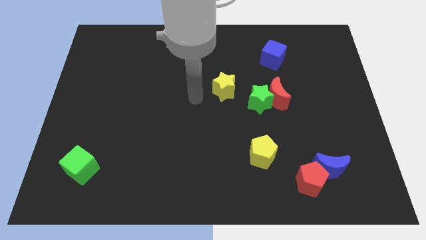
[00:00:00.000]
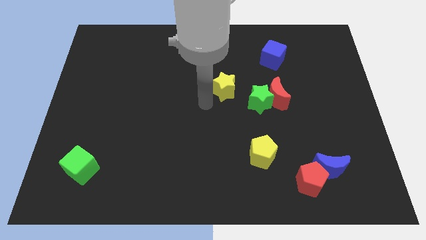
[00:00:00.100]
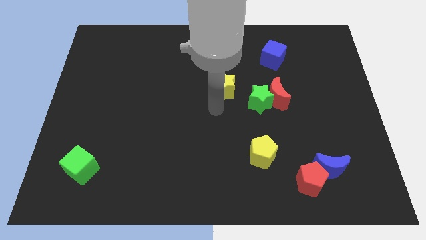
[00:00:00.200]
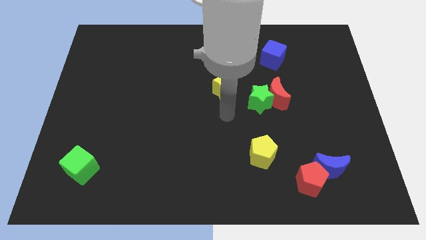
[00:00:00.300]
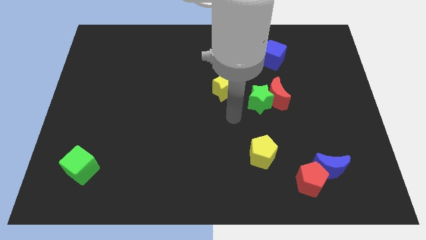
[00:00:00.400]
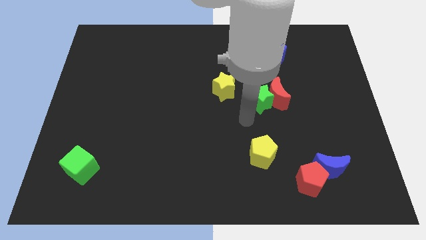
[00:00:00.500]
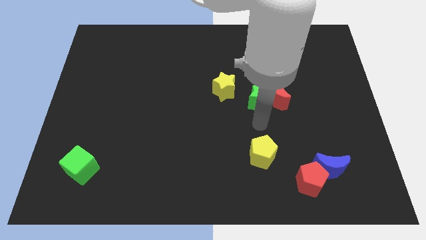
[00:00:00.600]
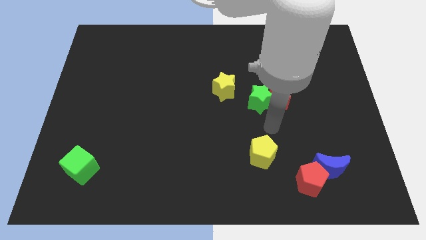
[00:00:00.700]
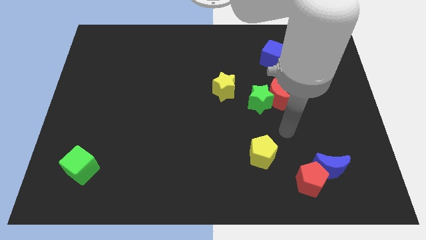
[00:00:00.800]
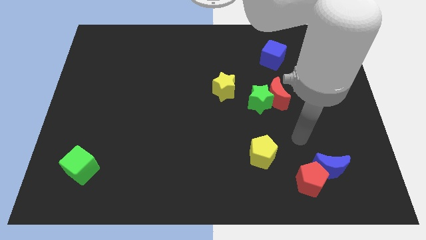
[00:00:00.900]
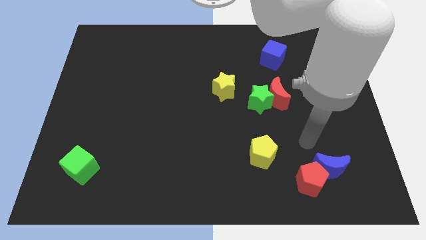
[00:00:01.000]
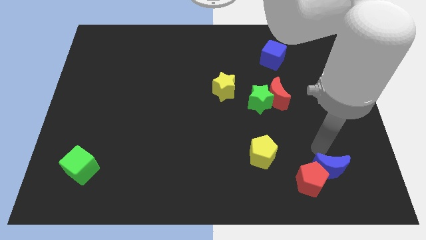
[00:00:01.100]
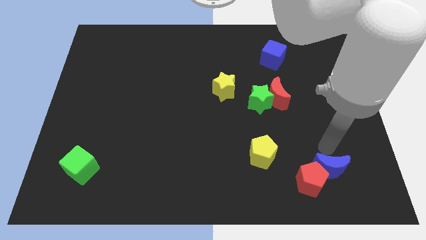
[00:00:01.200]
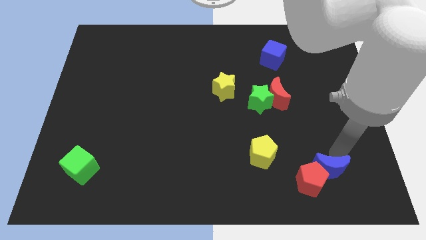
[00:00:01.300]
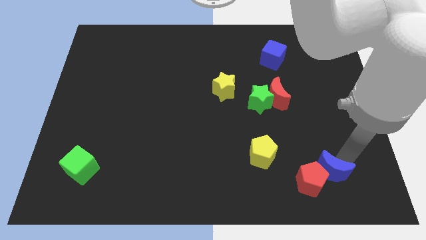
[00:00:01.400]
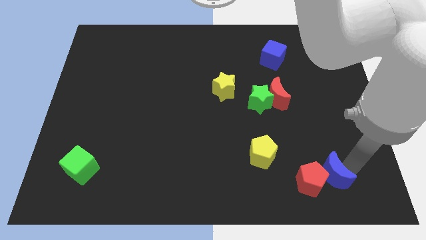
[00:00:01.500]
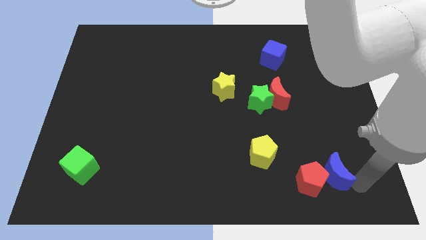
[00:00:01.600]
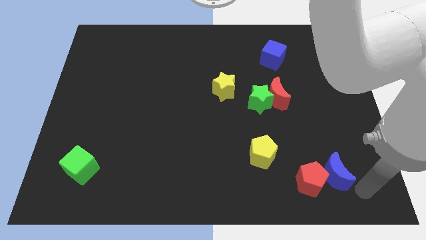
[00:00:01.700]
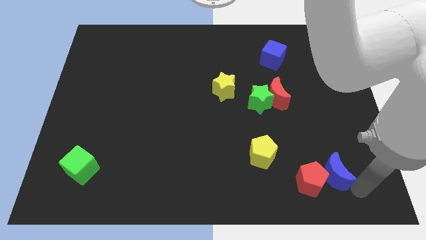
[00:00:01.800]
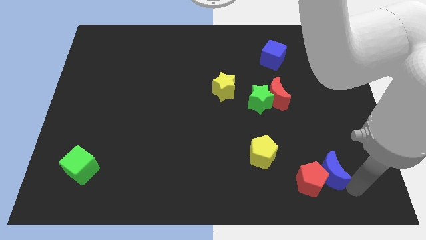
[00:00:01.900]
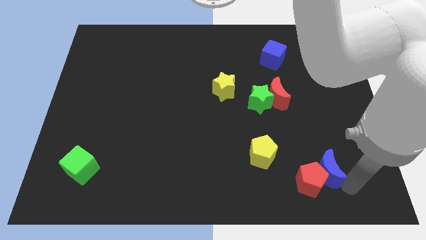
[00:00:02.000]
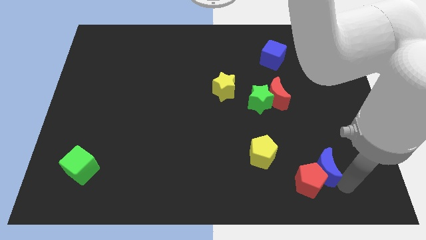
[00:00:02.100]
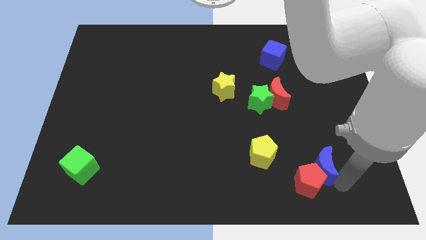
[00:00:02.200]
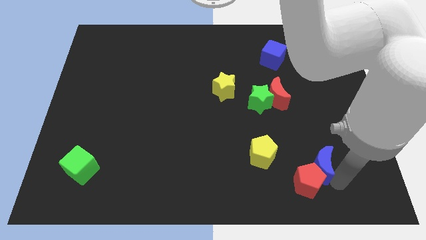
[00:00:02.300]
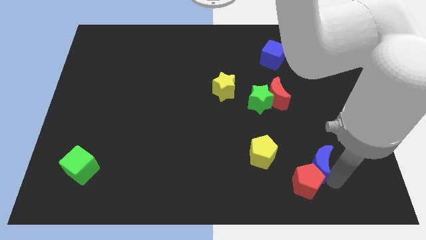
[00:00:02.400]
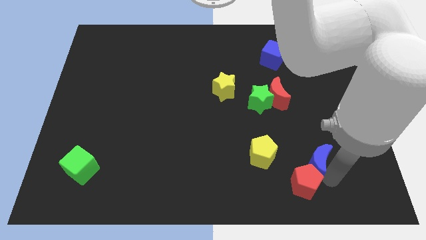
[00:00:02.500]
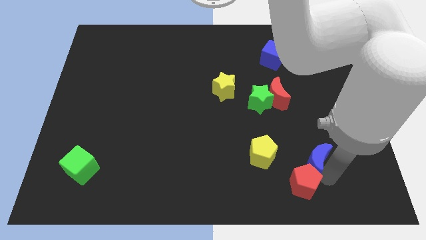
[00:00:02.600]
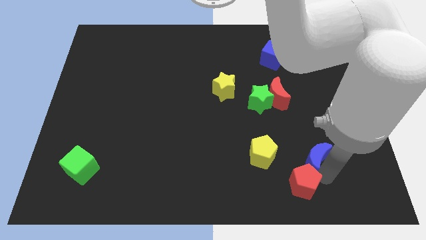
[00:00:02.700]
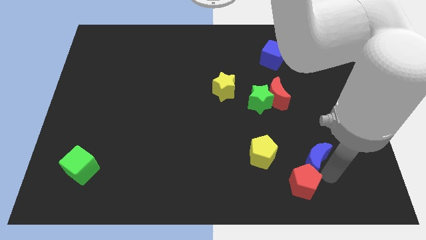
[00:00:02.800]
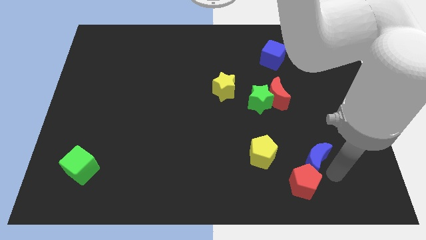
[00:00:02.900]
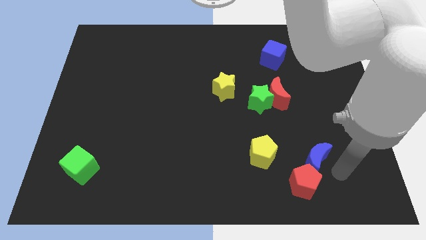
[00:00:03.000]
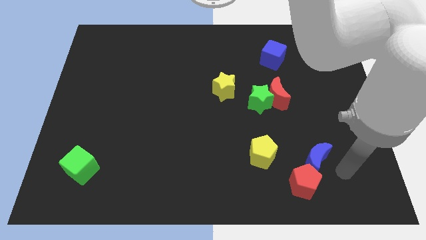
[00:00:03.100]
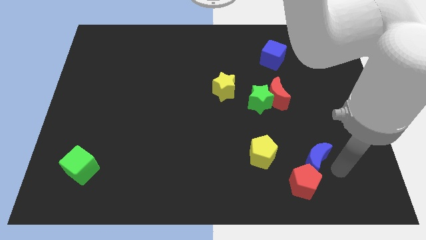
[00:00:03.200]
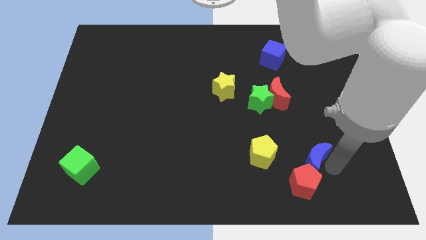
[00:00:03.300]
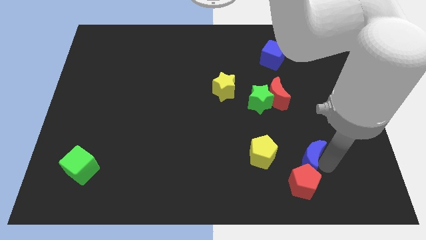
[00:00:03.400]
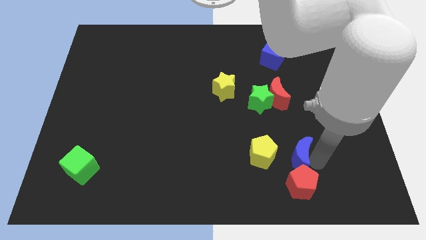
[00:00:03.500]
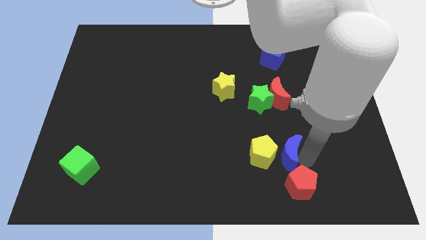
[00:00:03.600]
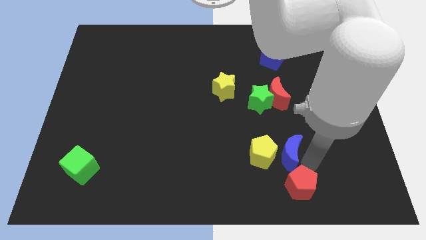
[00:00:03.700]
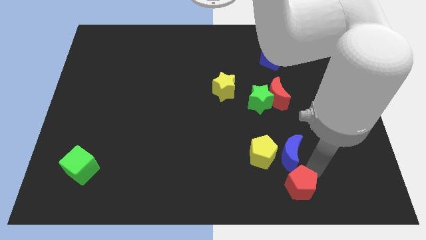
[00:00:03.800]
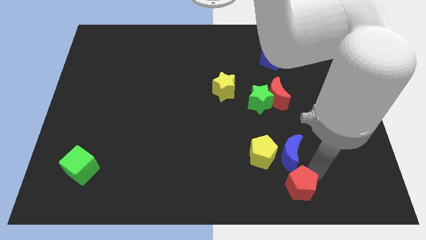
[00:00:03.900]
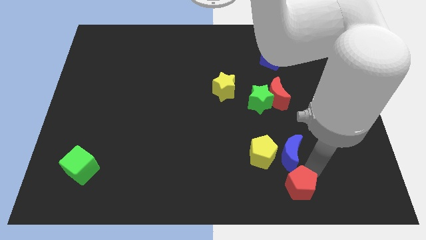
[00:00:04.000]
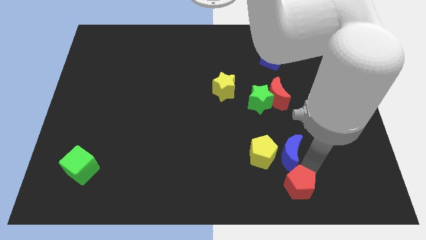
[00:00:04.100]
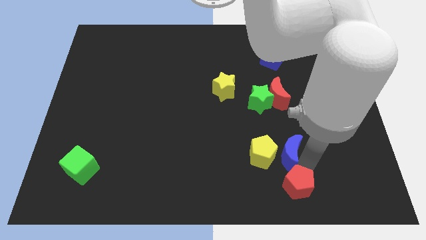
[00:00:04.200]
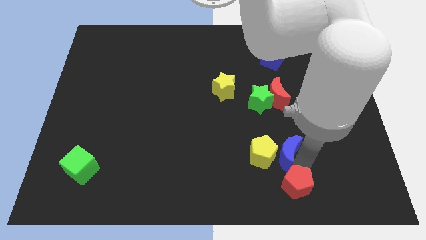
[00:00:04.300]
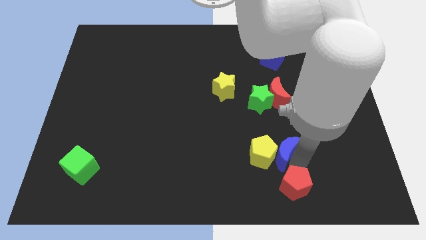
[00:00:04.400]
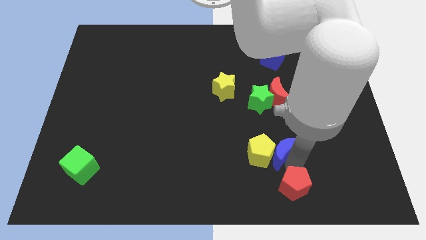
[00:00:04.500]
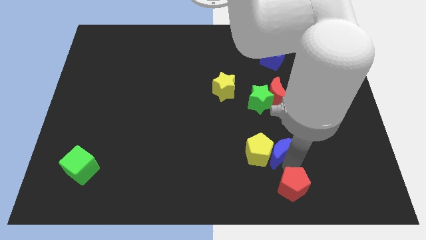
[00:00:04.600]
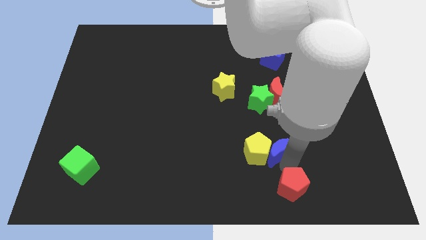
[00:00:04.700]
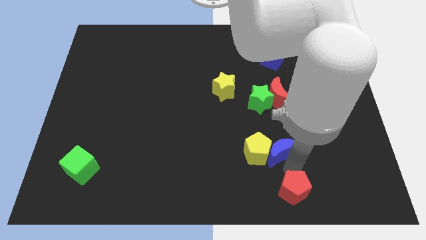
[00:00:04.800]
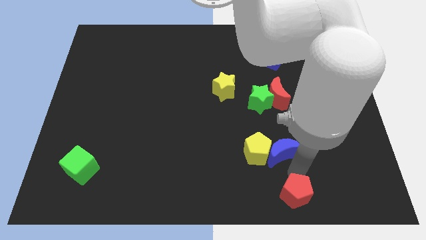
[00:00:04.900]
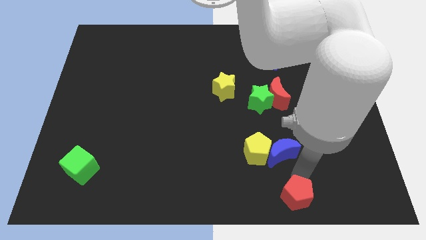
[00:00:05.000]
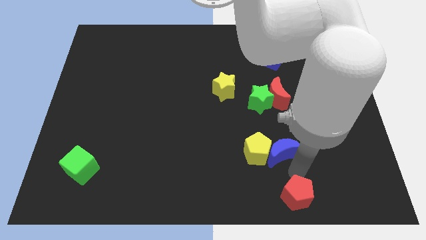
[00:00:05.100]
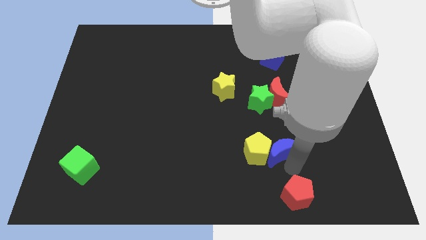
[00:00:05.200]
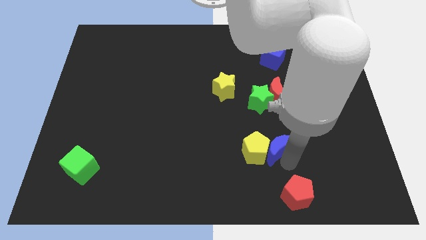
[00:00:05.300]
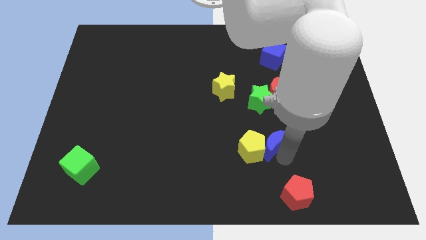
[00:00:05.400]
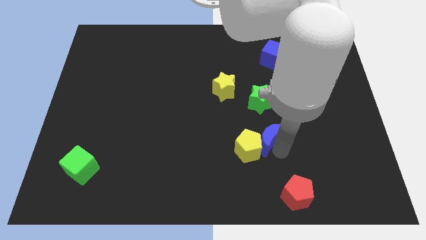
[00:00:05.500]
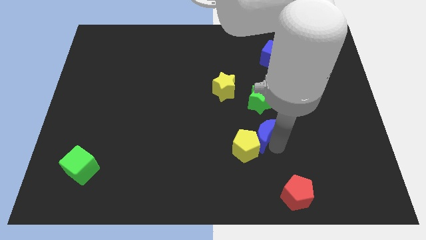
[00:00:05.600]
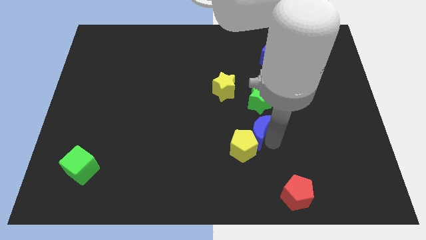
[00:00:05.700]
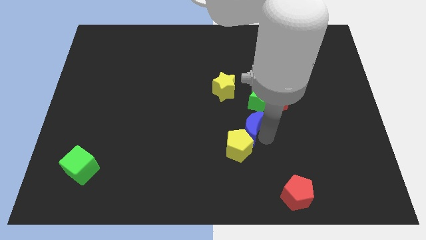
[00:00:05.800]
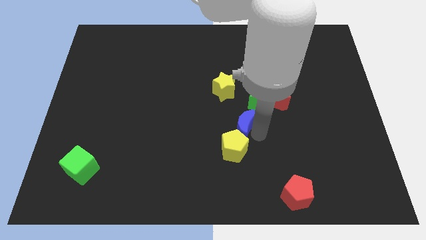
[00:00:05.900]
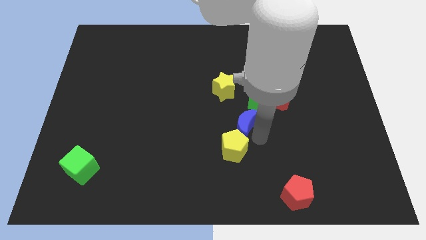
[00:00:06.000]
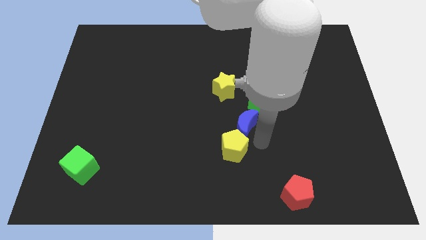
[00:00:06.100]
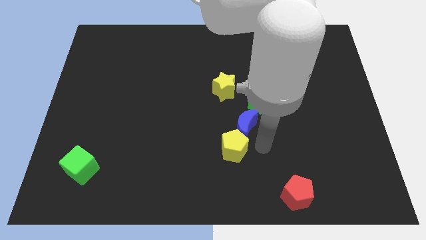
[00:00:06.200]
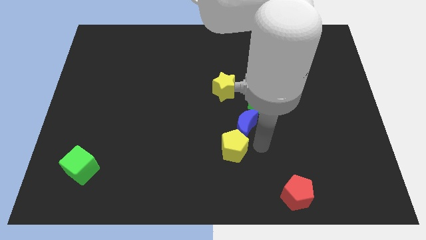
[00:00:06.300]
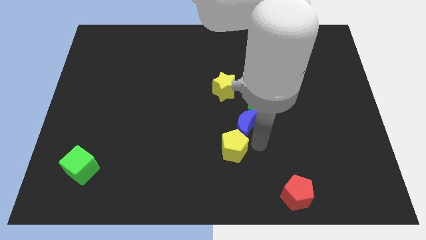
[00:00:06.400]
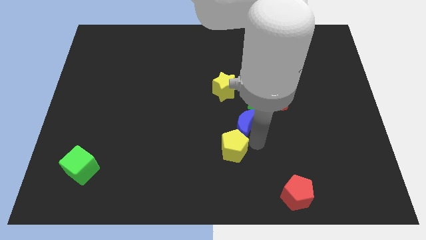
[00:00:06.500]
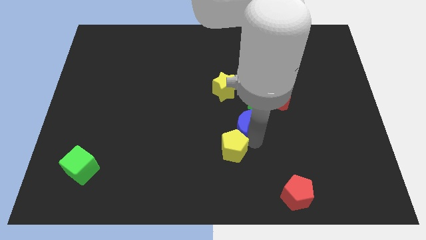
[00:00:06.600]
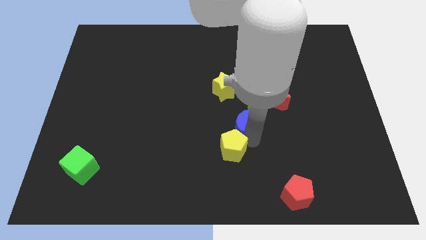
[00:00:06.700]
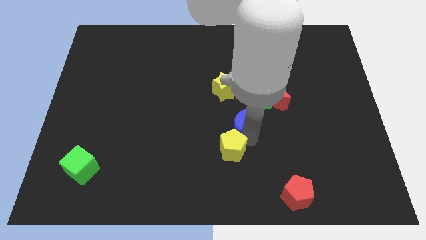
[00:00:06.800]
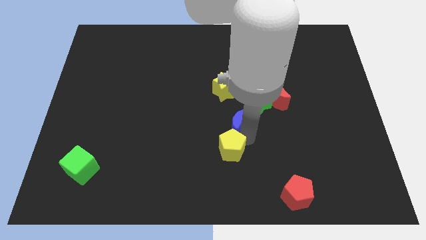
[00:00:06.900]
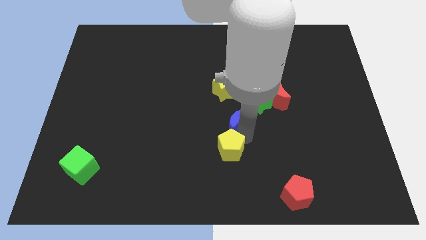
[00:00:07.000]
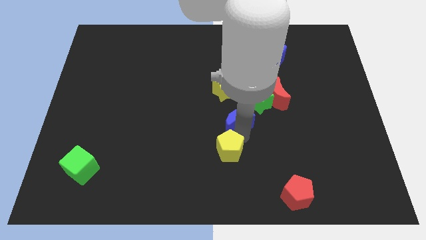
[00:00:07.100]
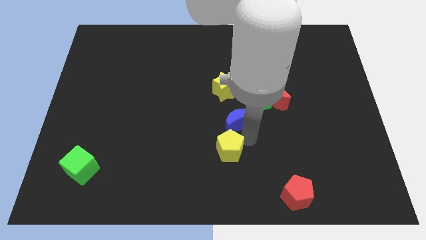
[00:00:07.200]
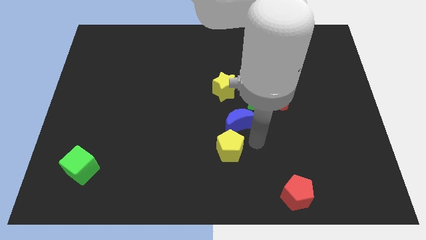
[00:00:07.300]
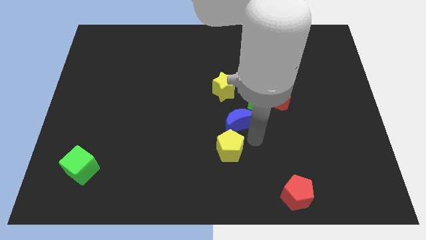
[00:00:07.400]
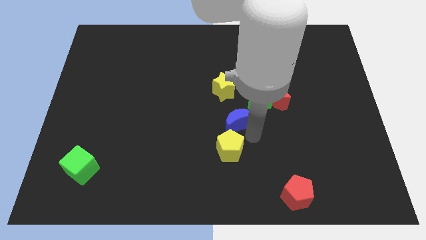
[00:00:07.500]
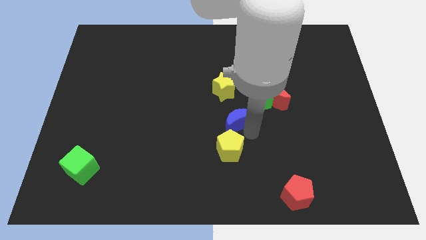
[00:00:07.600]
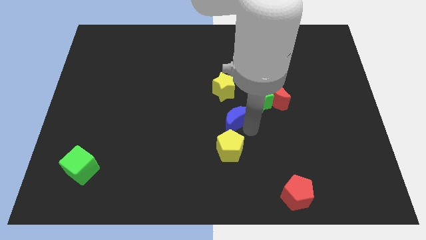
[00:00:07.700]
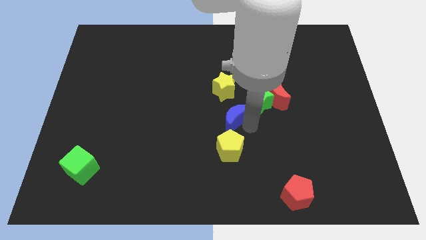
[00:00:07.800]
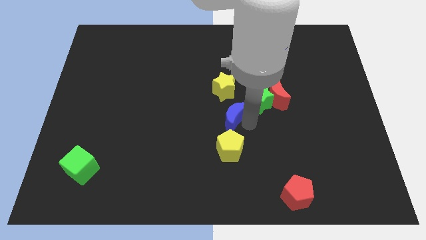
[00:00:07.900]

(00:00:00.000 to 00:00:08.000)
slide the blue moon left of the green star
